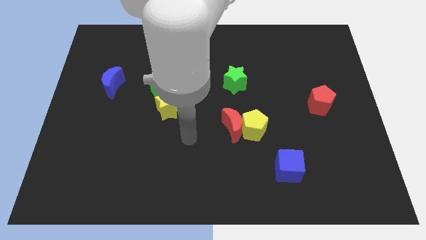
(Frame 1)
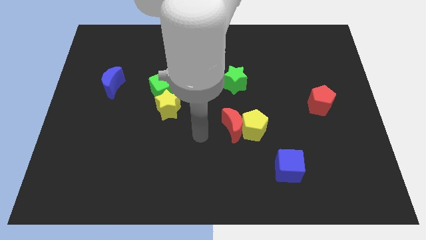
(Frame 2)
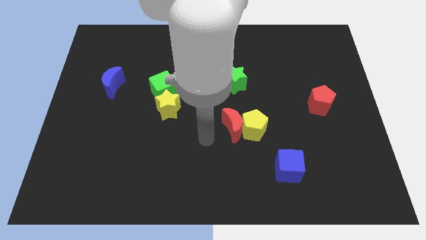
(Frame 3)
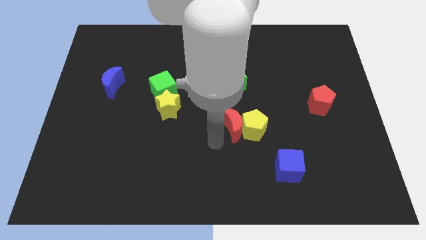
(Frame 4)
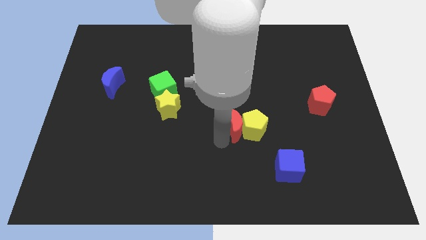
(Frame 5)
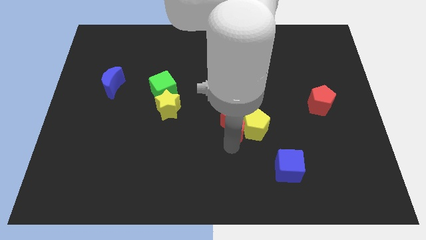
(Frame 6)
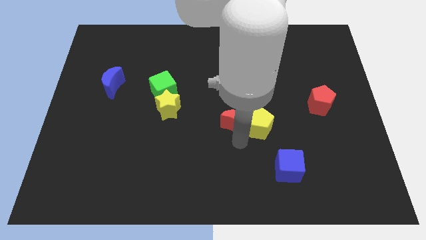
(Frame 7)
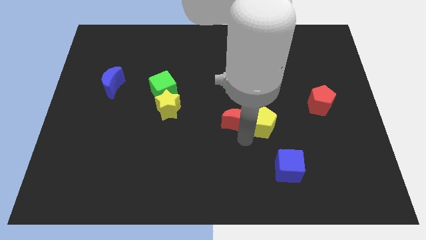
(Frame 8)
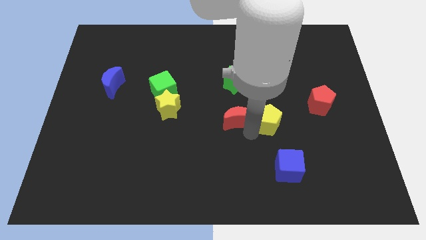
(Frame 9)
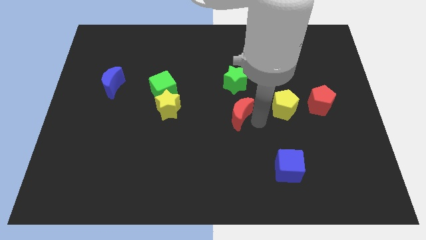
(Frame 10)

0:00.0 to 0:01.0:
separate the red moon from the yellow pentagon

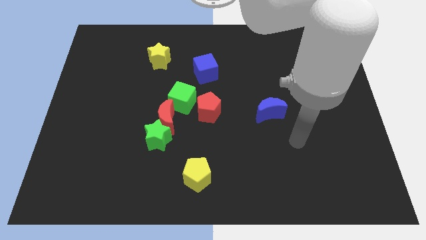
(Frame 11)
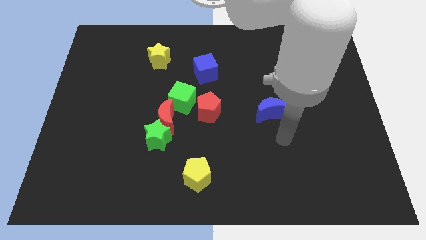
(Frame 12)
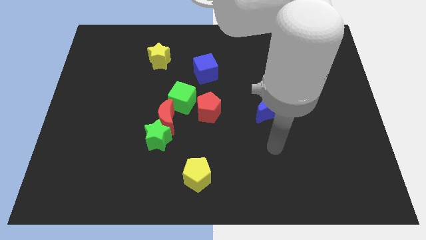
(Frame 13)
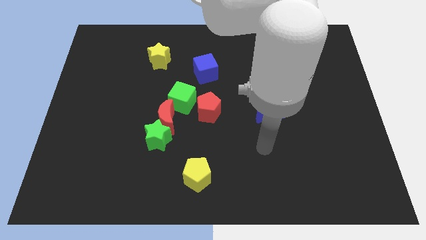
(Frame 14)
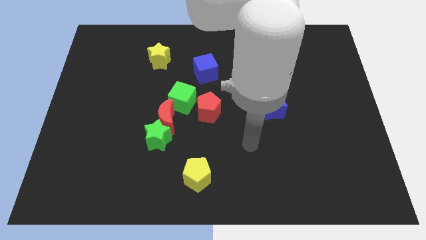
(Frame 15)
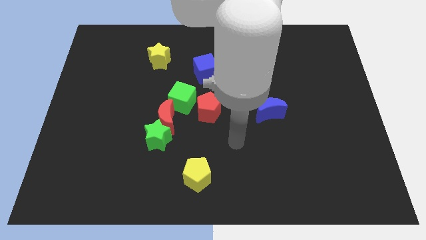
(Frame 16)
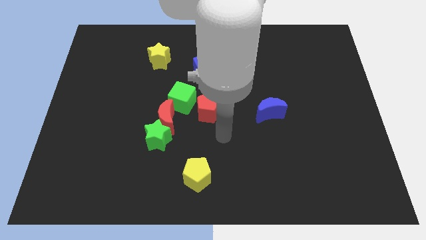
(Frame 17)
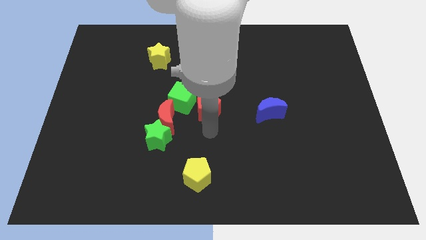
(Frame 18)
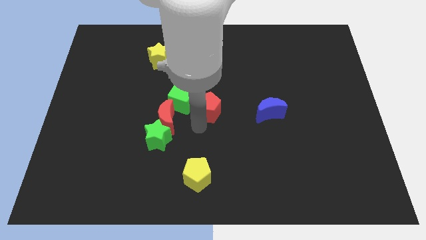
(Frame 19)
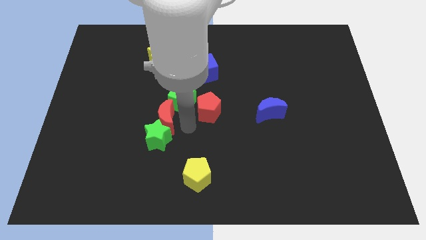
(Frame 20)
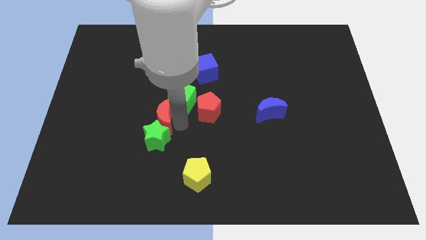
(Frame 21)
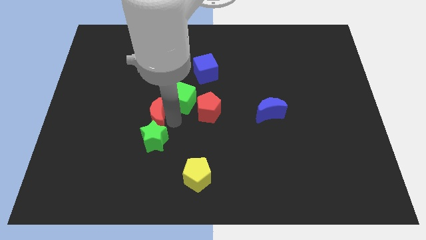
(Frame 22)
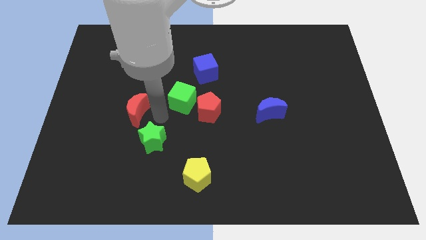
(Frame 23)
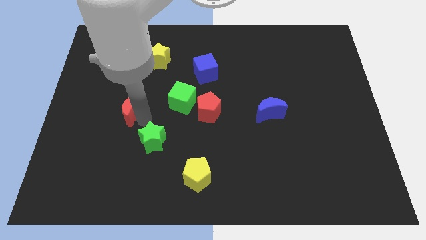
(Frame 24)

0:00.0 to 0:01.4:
separate the green star from the red moon

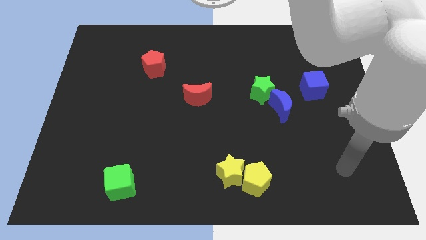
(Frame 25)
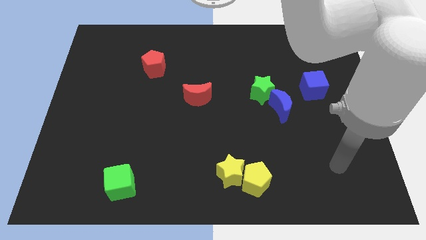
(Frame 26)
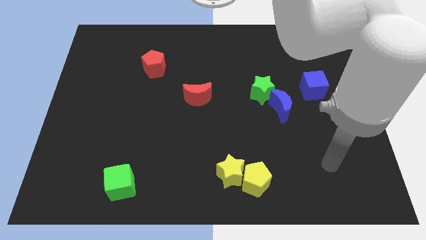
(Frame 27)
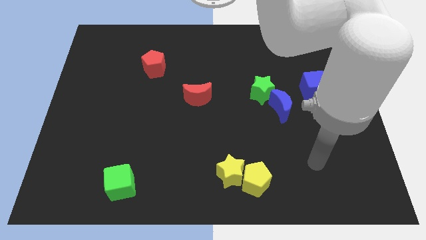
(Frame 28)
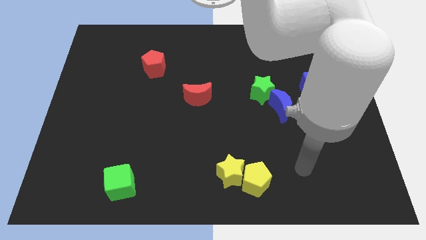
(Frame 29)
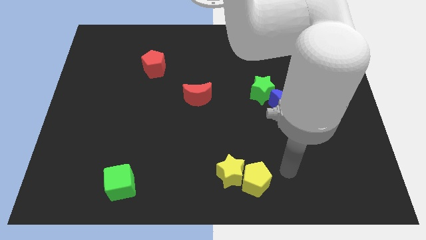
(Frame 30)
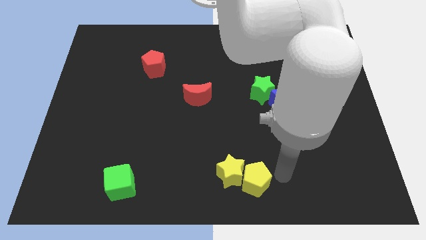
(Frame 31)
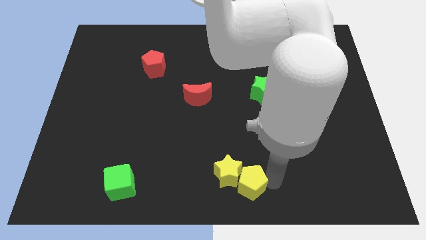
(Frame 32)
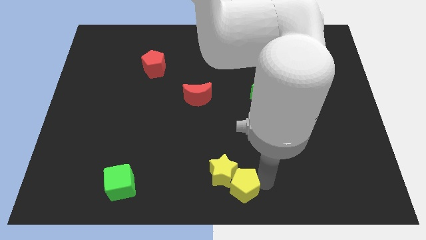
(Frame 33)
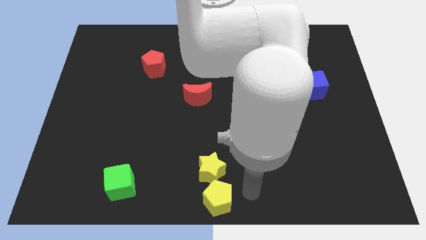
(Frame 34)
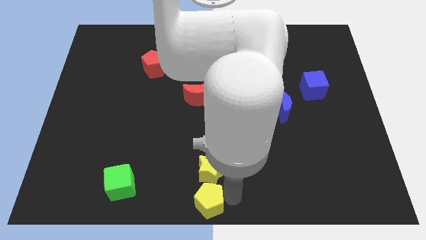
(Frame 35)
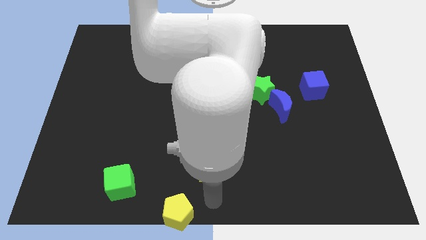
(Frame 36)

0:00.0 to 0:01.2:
separate the yellow star from the yellow pentagon

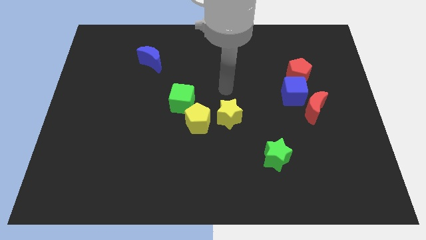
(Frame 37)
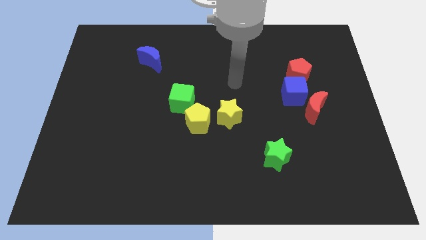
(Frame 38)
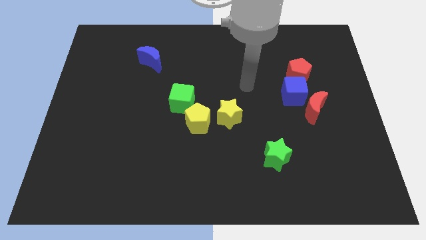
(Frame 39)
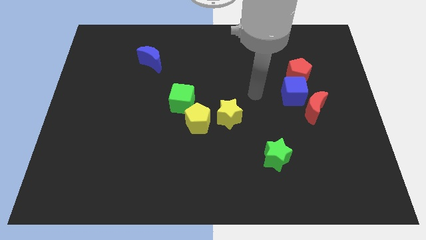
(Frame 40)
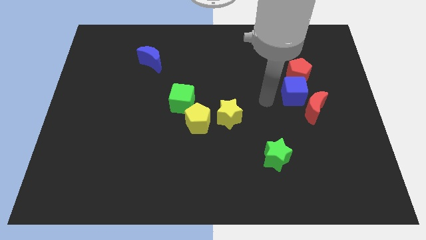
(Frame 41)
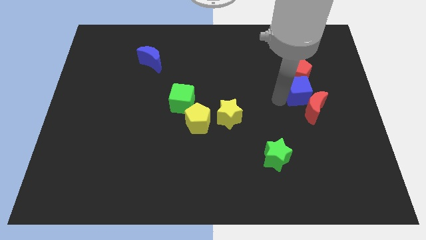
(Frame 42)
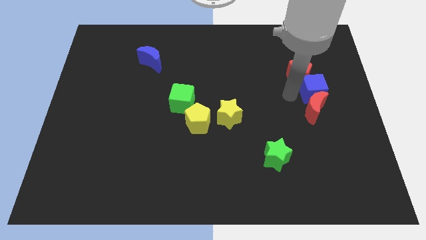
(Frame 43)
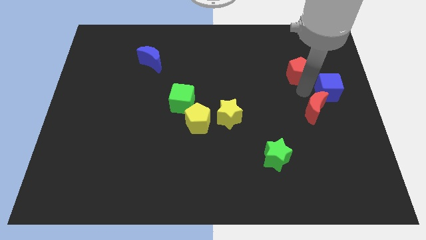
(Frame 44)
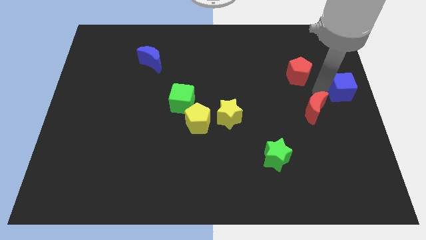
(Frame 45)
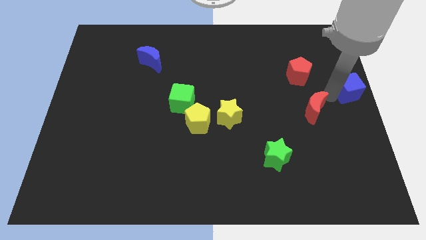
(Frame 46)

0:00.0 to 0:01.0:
move the red moon away from the blue cube

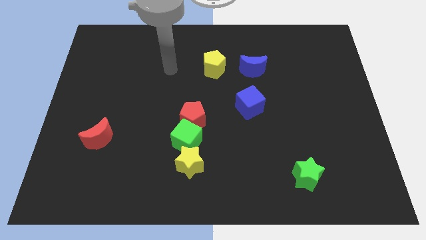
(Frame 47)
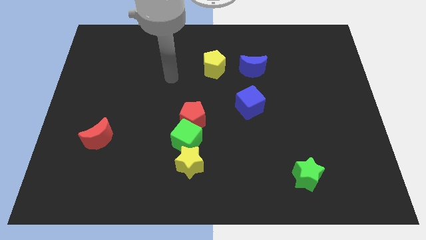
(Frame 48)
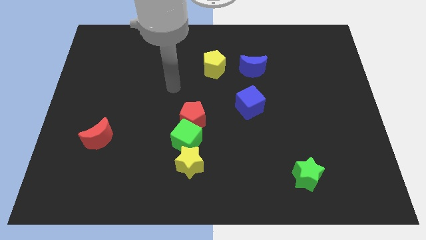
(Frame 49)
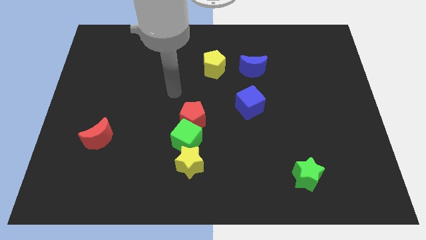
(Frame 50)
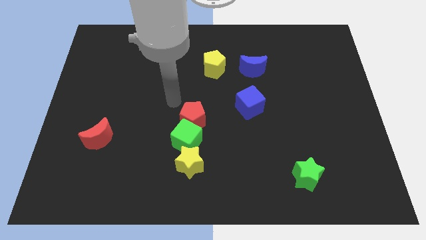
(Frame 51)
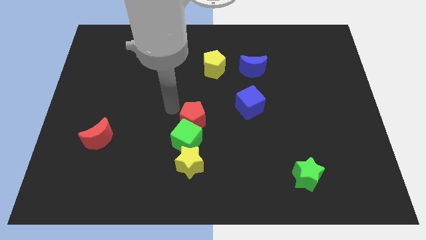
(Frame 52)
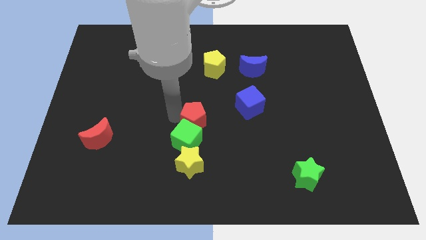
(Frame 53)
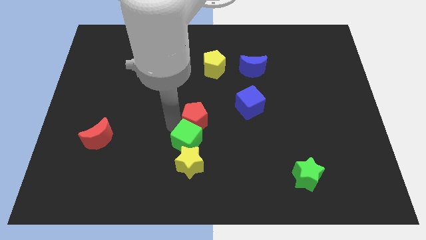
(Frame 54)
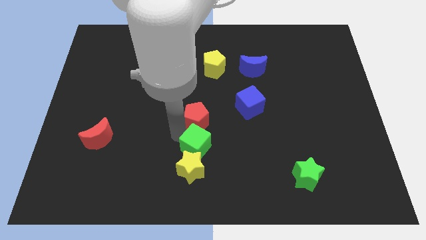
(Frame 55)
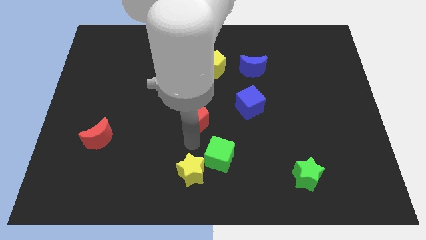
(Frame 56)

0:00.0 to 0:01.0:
pull the red pentagon apart from the green cube

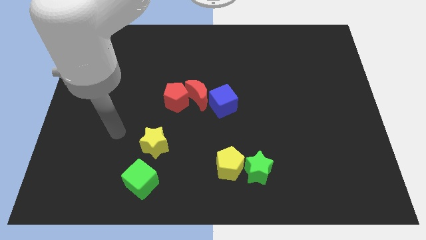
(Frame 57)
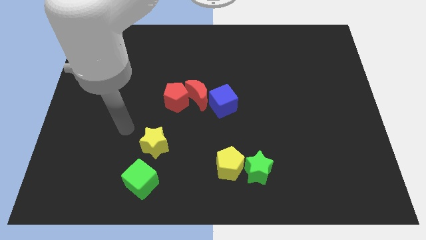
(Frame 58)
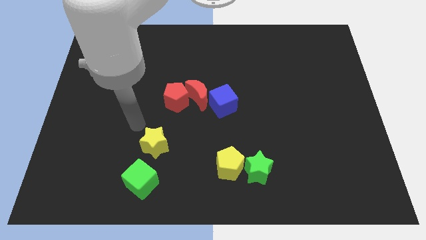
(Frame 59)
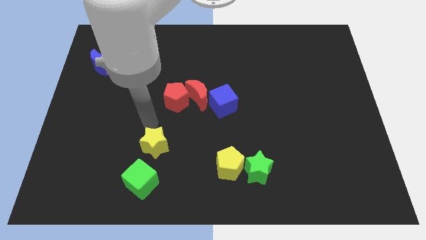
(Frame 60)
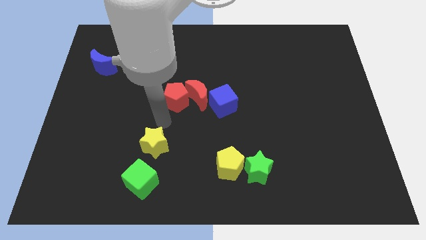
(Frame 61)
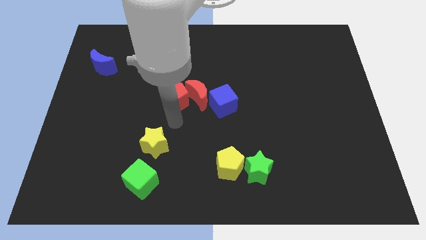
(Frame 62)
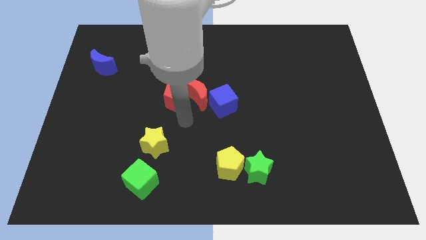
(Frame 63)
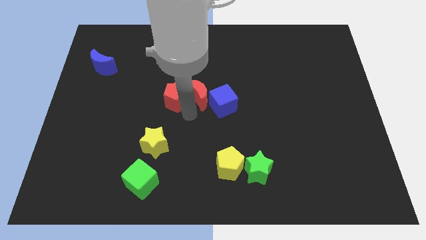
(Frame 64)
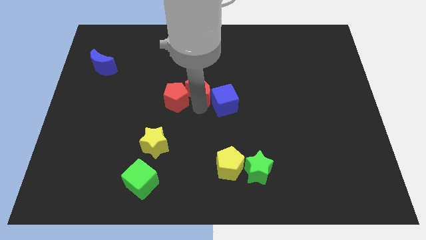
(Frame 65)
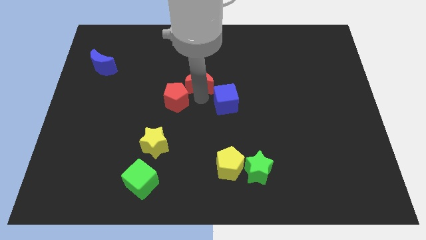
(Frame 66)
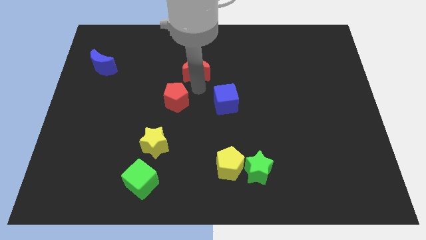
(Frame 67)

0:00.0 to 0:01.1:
pull the red pentagon apart from the red moon

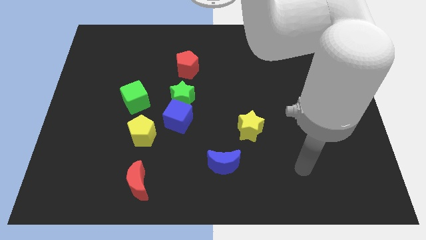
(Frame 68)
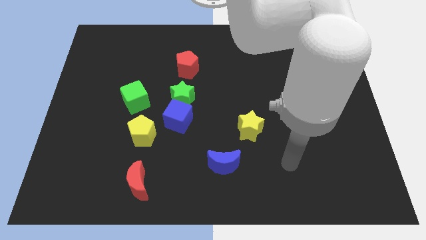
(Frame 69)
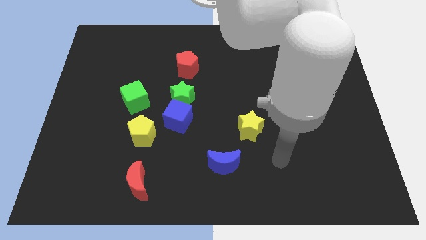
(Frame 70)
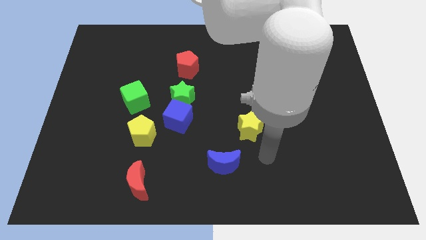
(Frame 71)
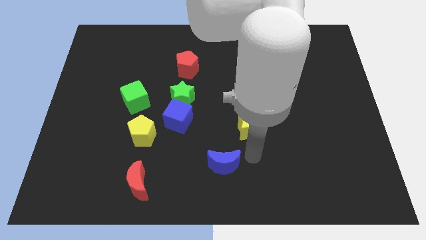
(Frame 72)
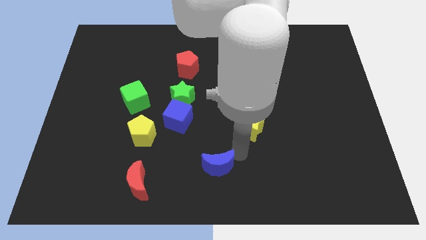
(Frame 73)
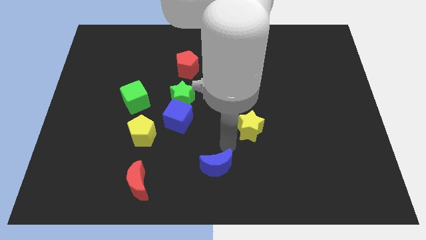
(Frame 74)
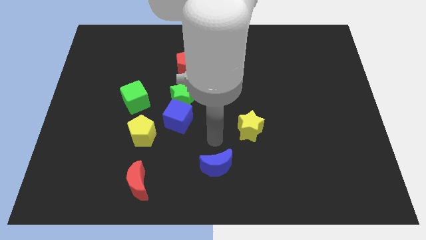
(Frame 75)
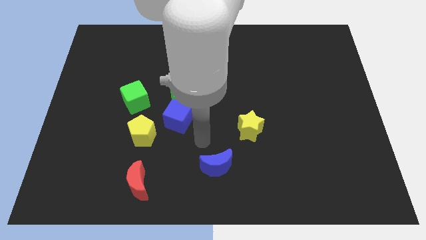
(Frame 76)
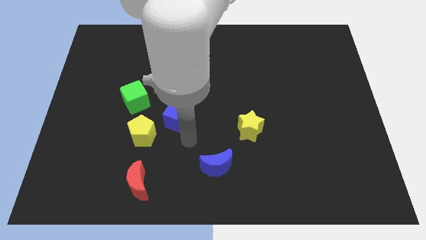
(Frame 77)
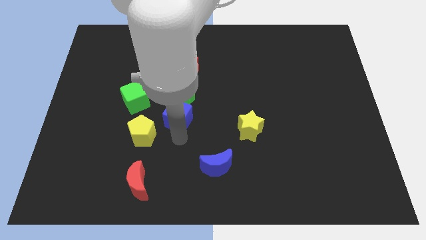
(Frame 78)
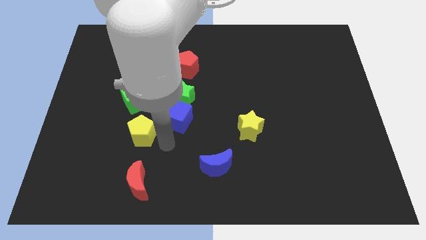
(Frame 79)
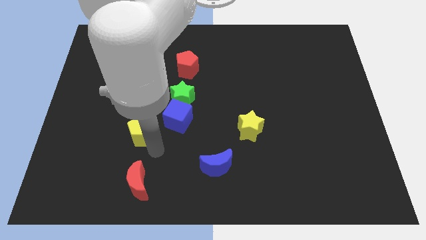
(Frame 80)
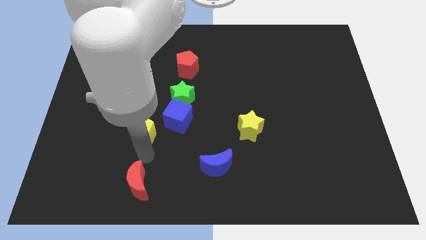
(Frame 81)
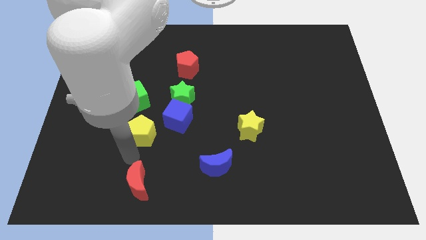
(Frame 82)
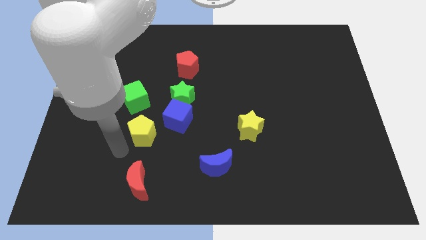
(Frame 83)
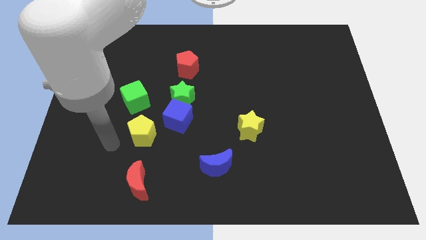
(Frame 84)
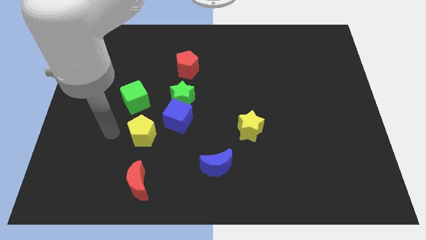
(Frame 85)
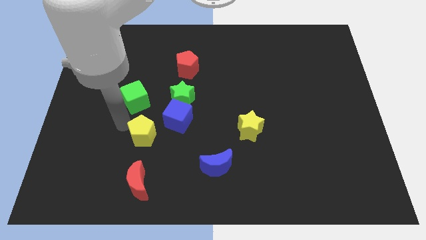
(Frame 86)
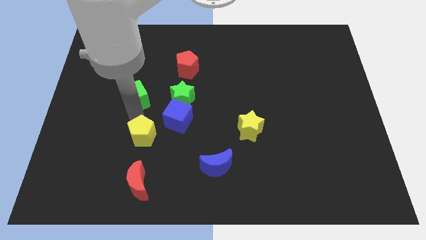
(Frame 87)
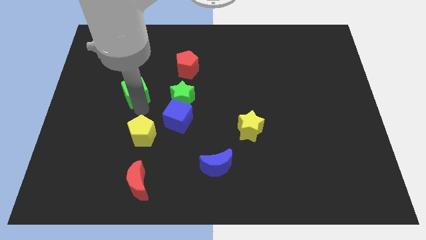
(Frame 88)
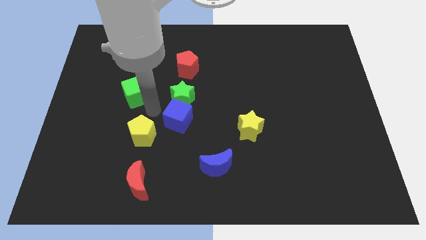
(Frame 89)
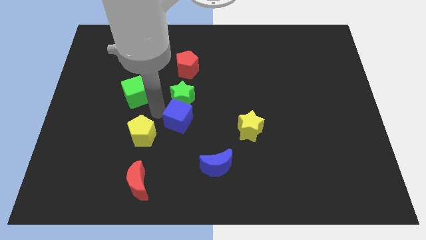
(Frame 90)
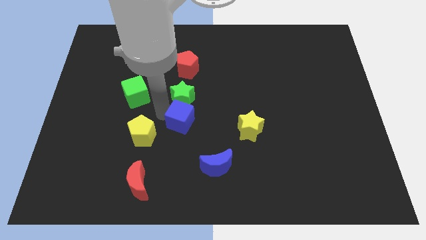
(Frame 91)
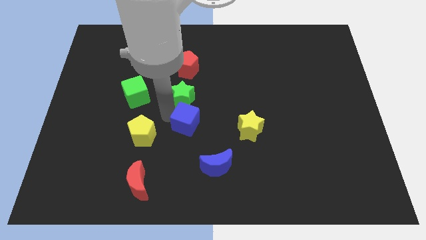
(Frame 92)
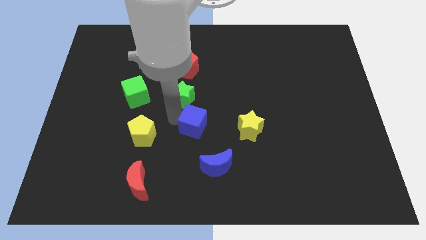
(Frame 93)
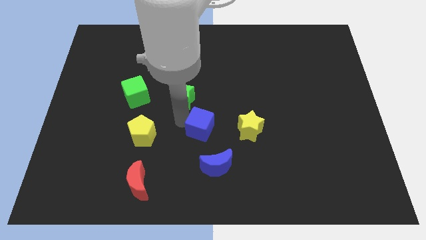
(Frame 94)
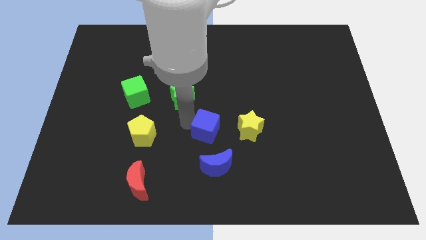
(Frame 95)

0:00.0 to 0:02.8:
pull the blue cube apart from the green star and yellow pentagon
